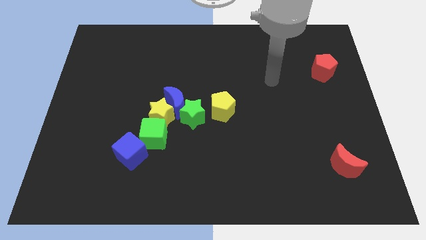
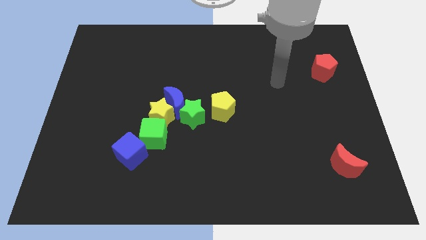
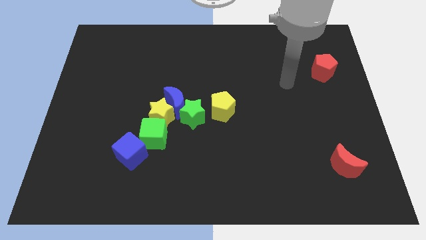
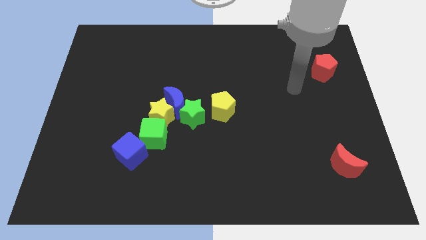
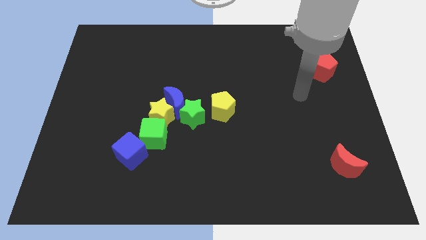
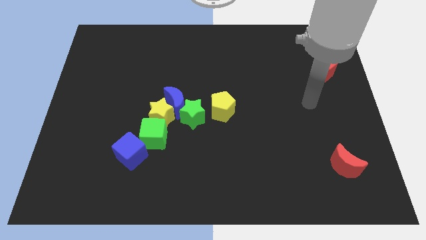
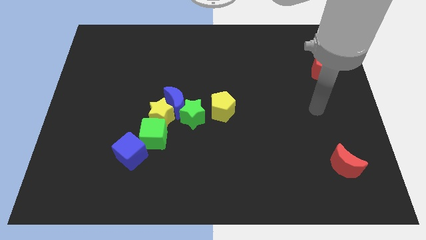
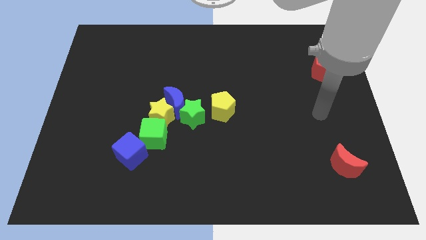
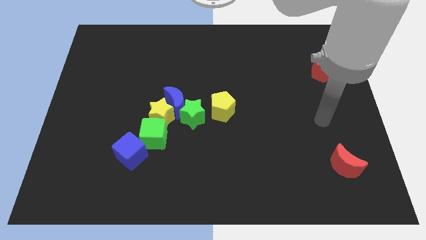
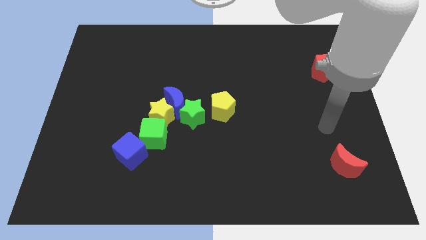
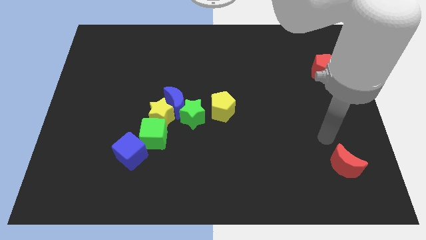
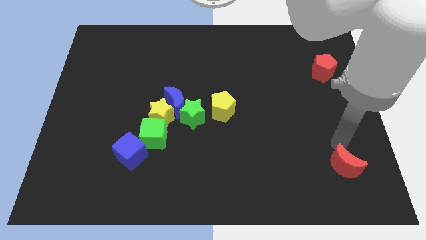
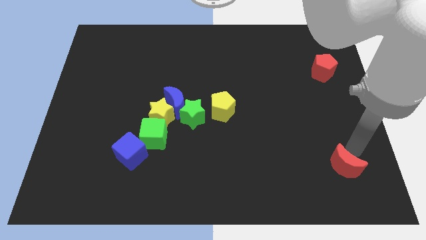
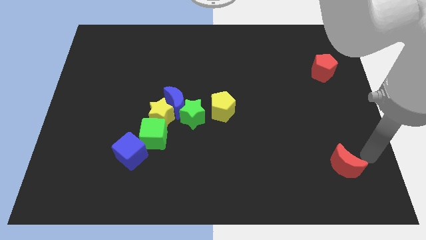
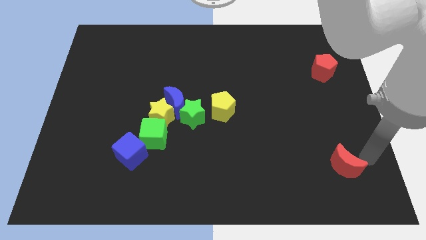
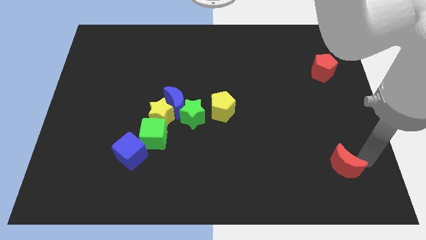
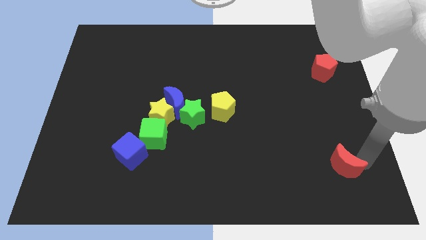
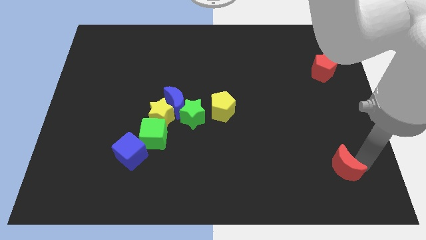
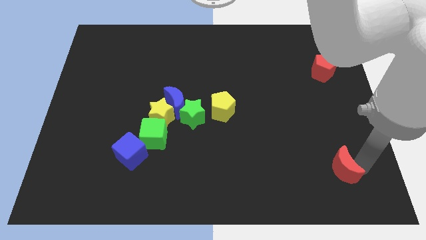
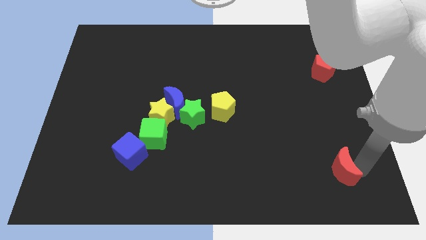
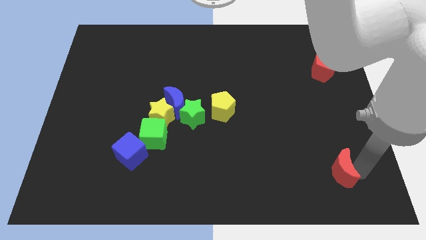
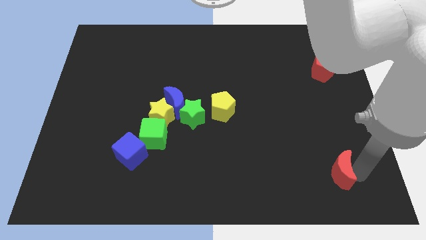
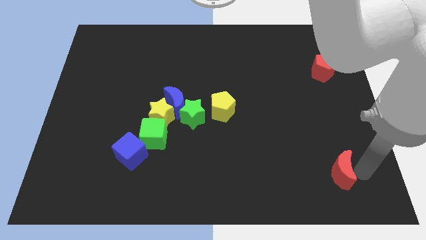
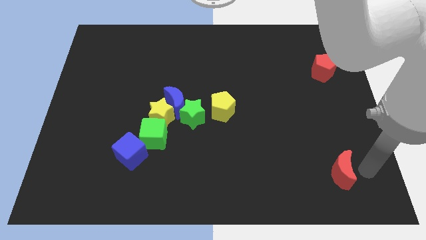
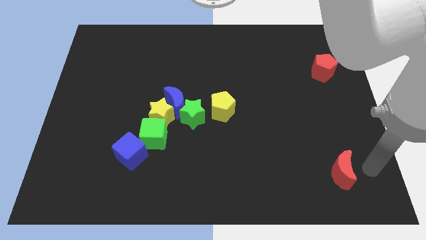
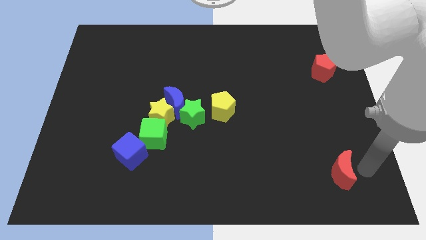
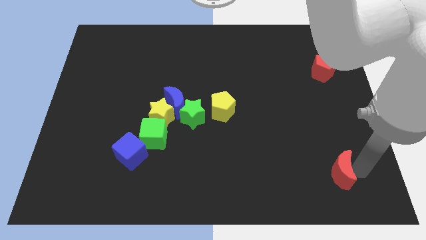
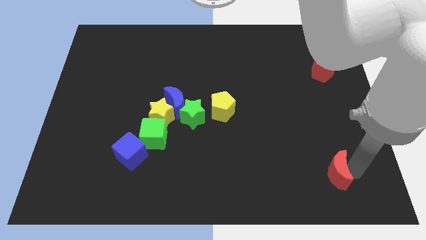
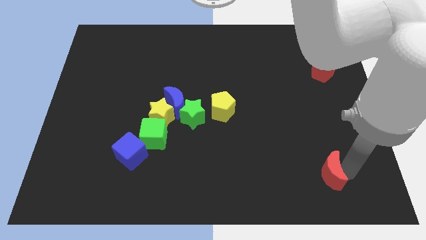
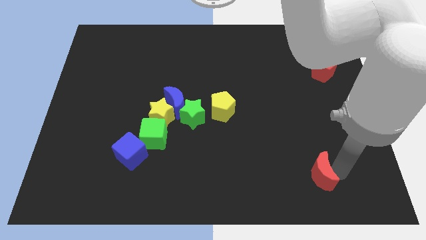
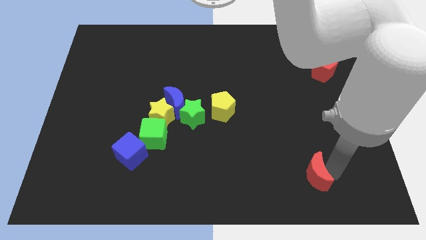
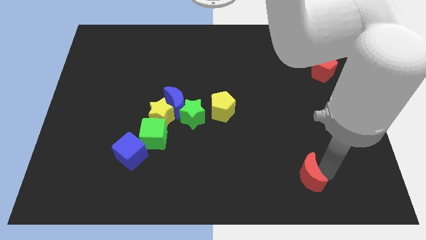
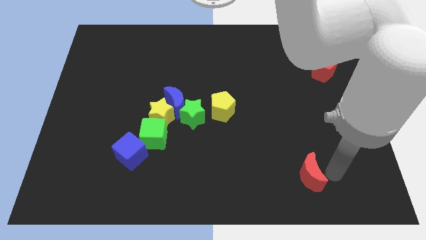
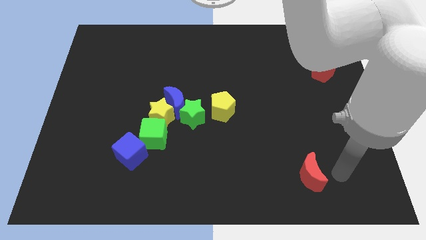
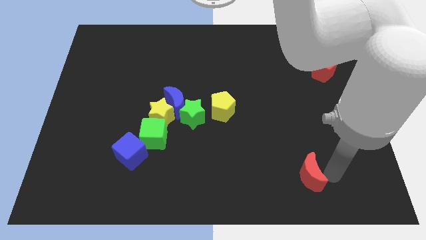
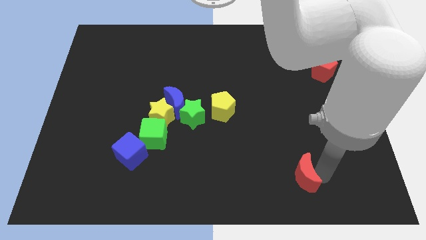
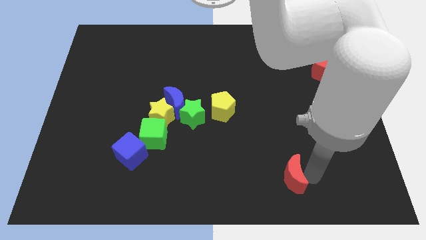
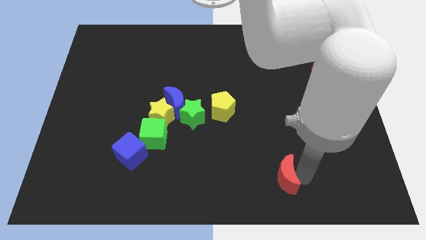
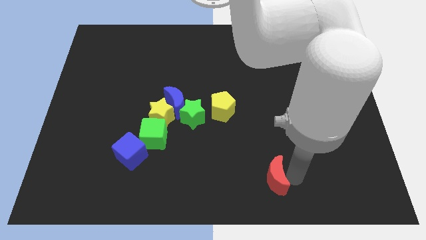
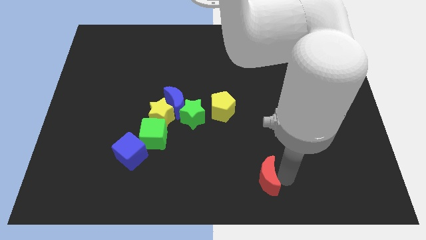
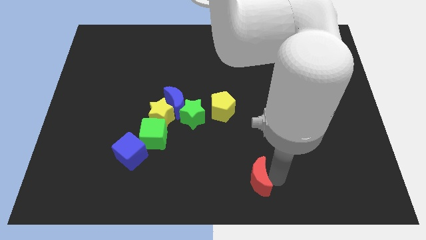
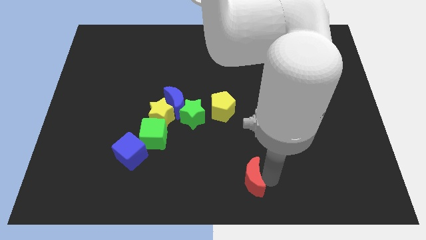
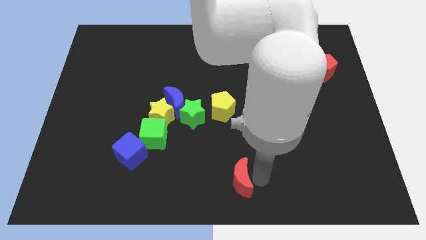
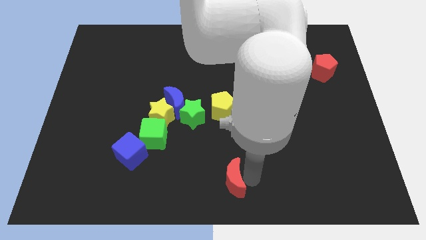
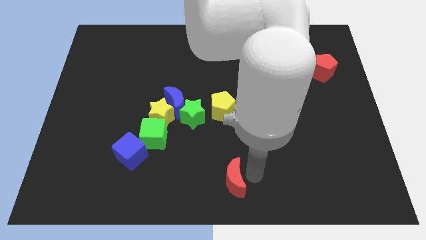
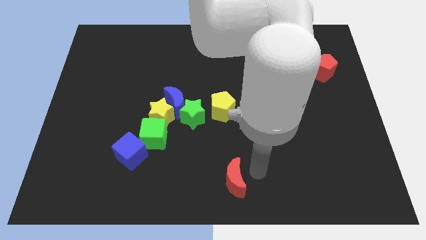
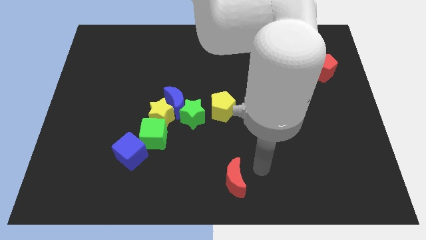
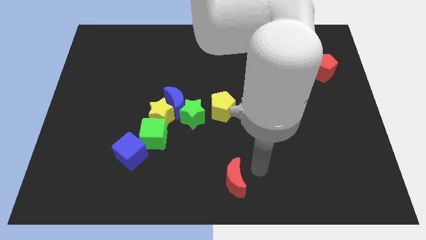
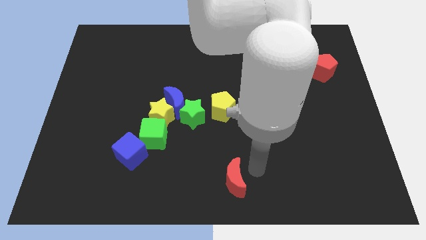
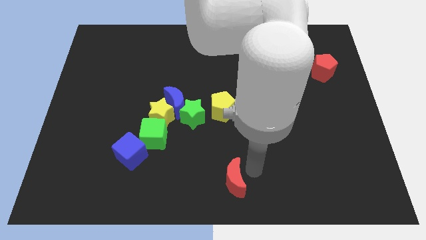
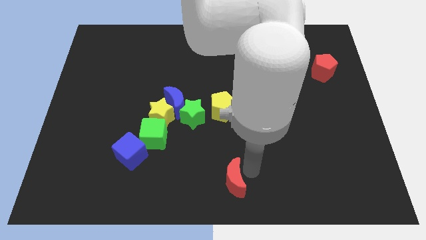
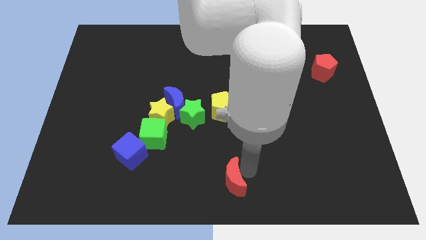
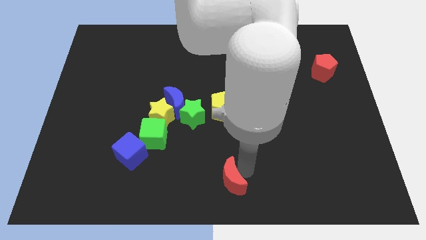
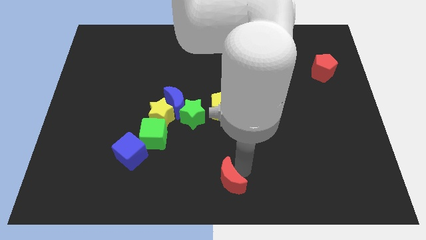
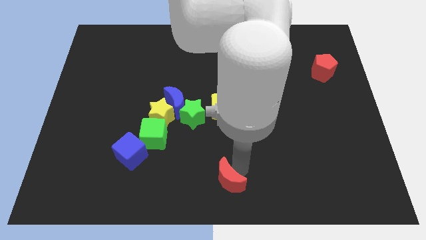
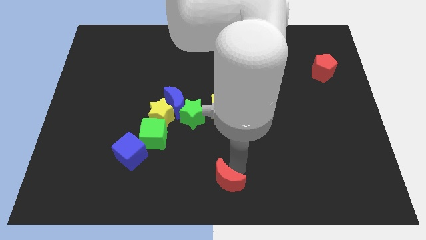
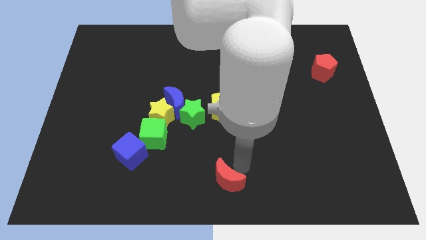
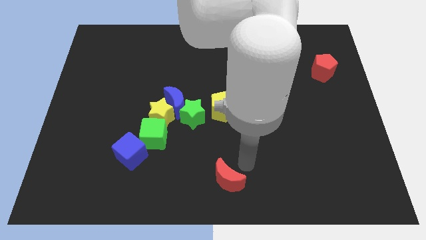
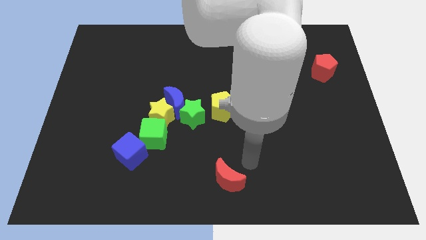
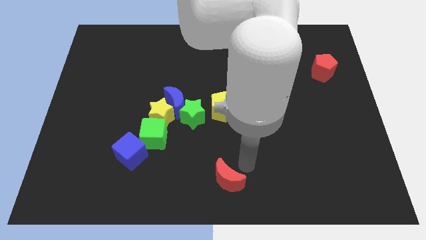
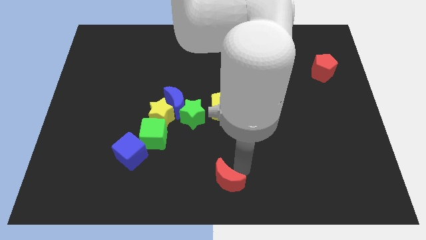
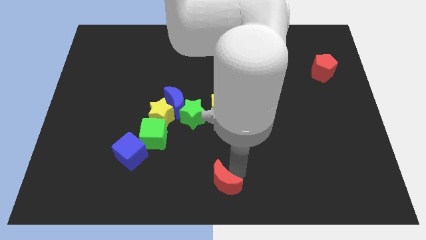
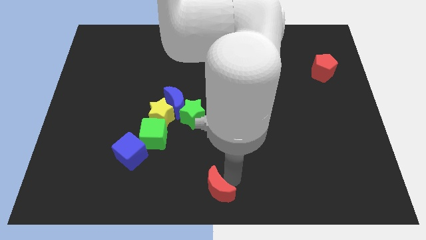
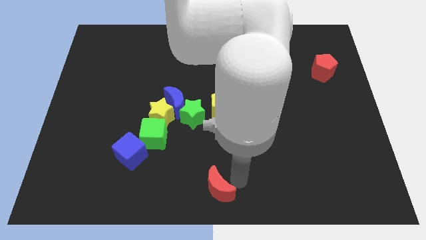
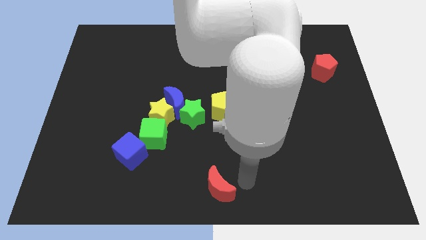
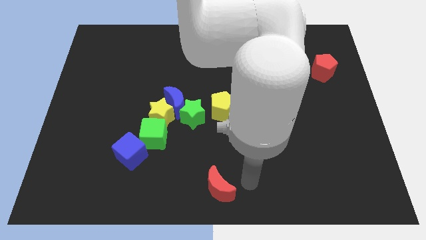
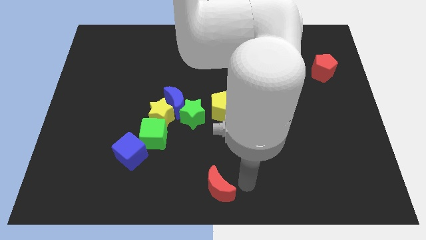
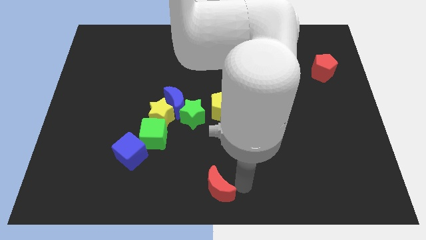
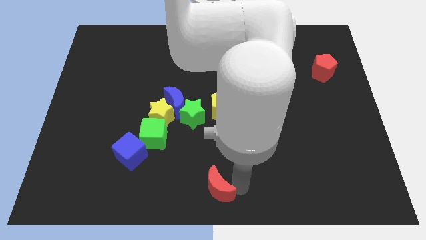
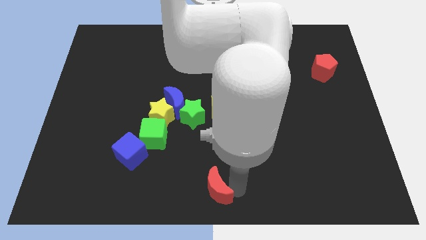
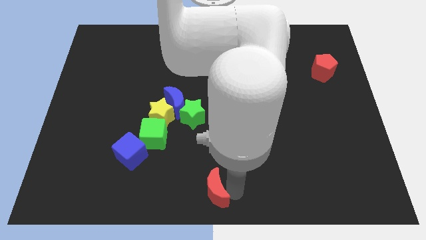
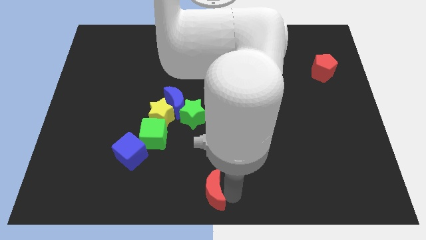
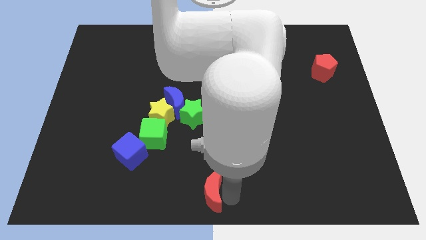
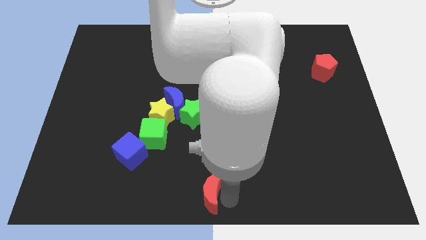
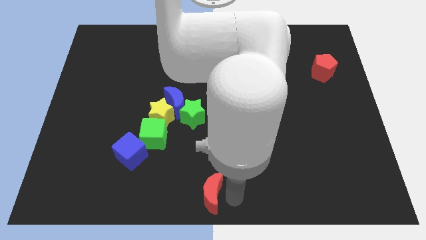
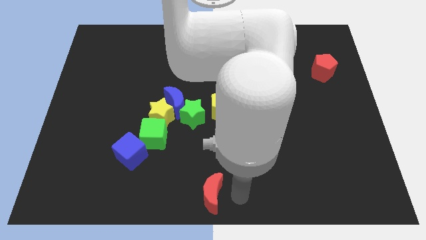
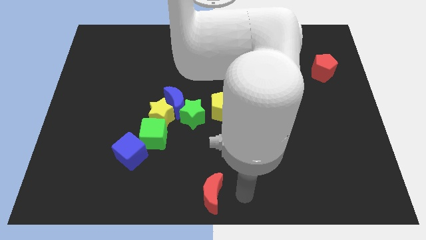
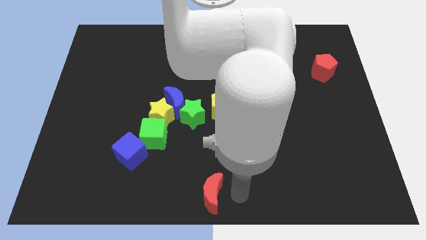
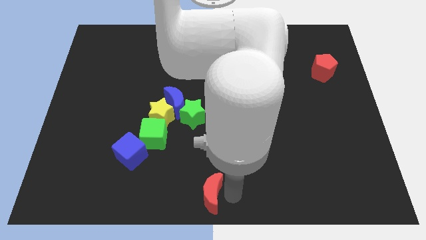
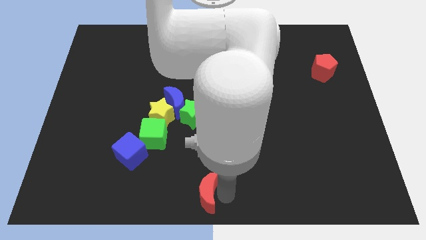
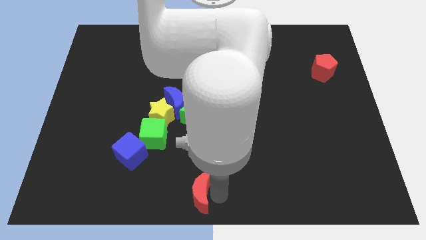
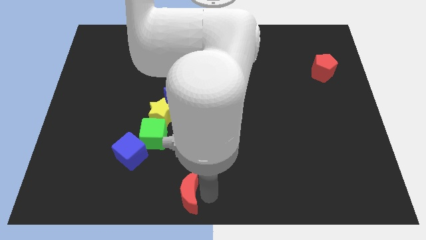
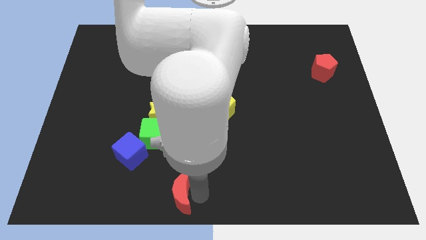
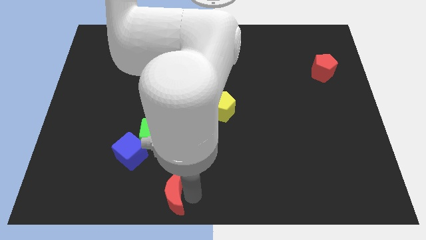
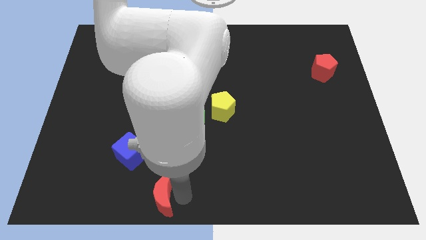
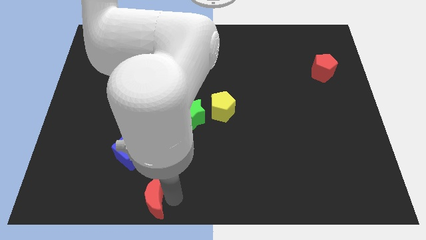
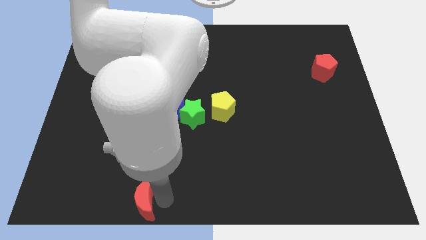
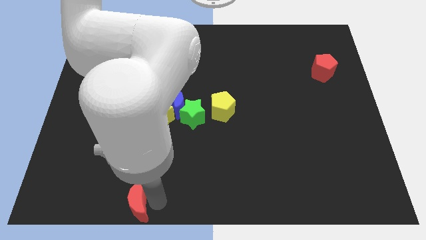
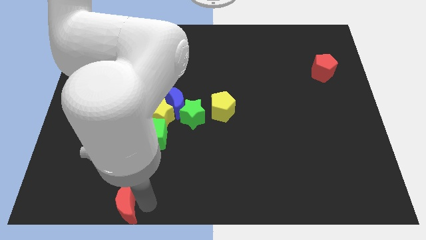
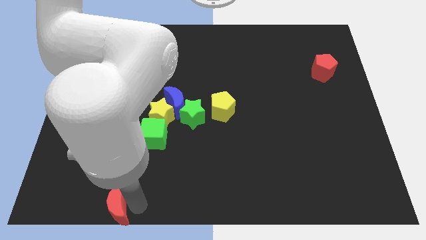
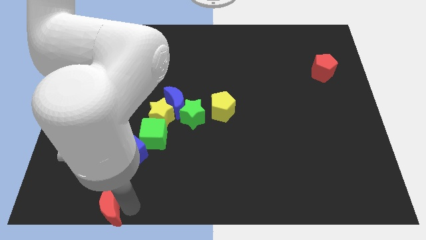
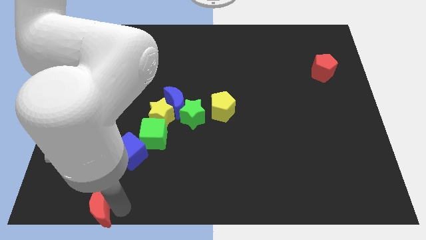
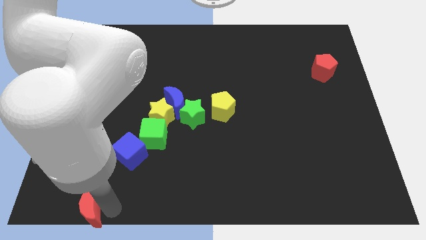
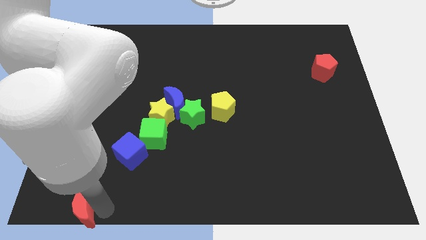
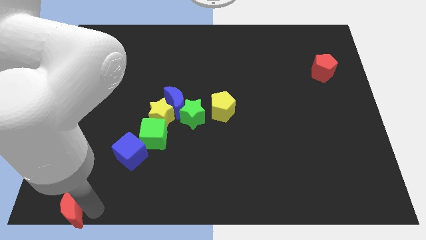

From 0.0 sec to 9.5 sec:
push the red moon to the bottom left corner
